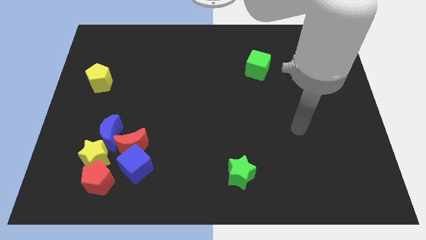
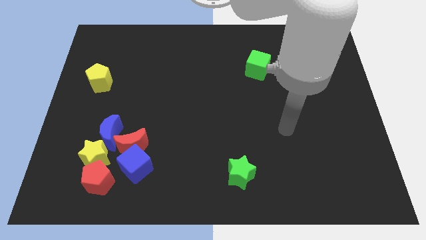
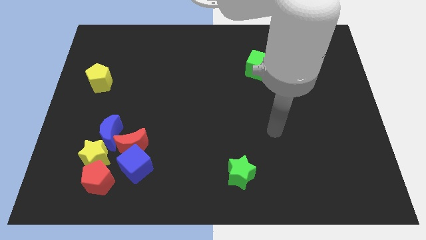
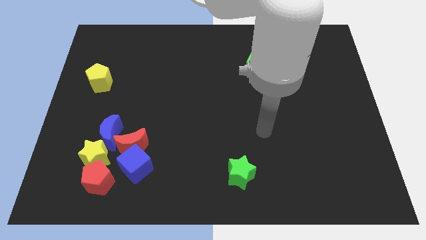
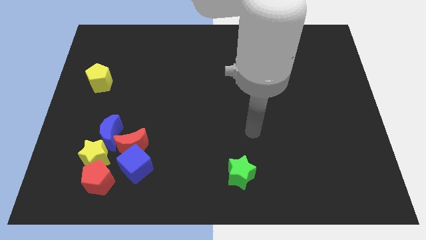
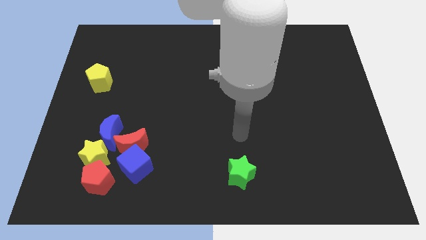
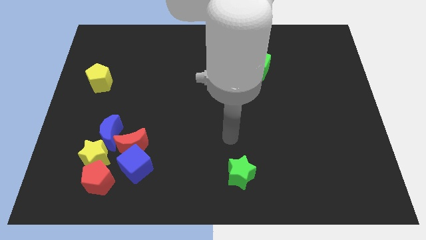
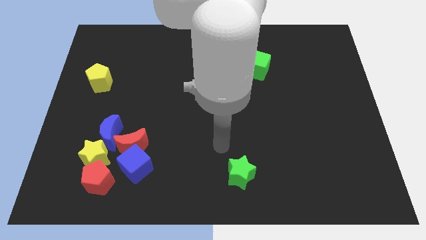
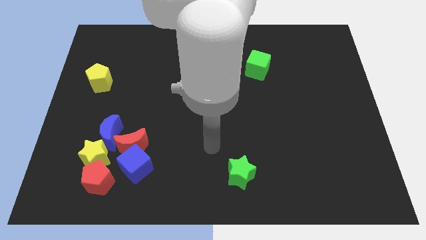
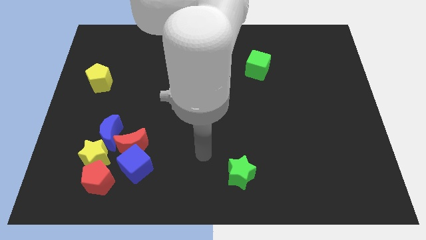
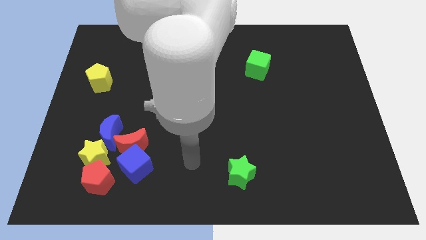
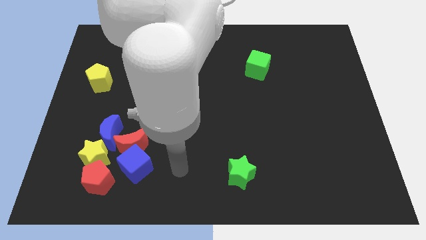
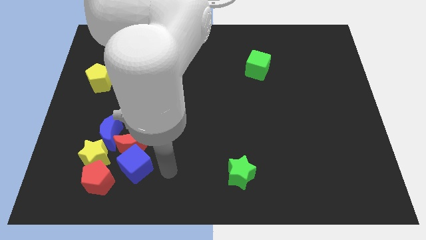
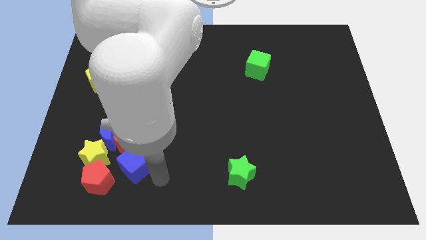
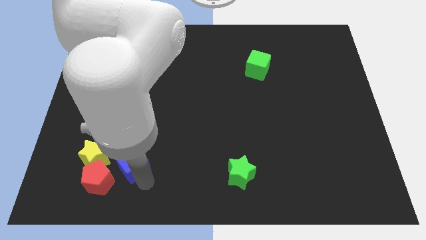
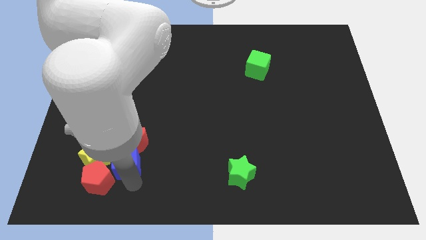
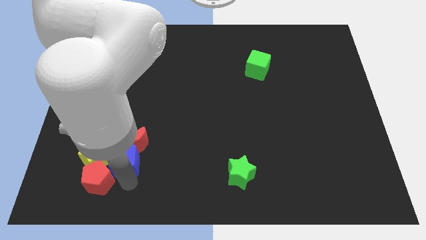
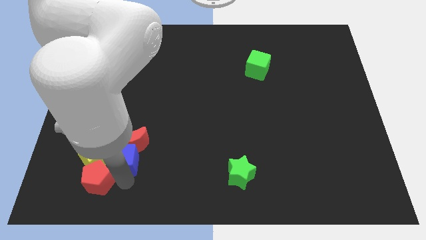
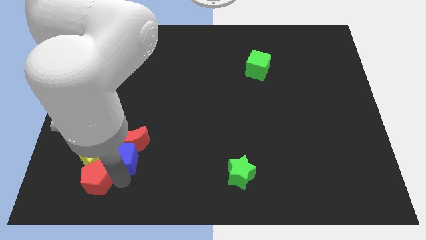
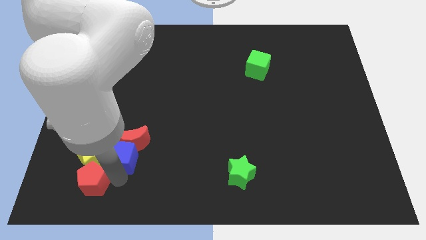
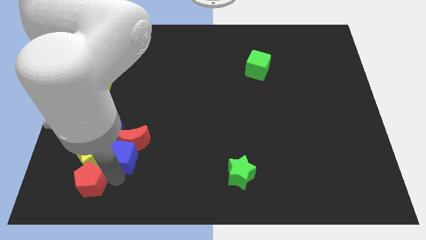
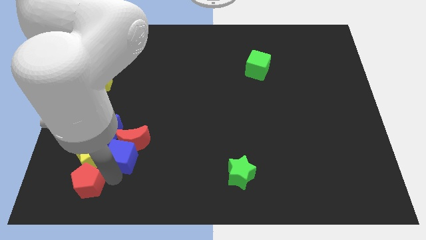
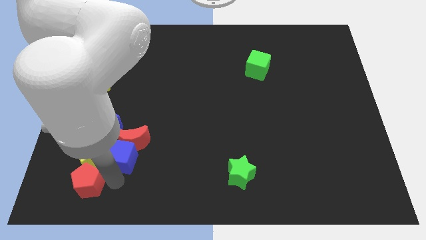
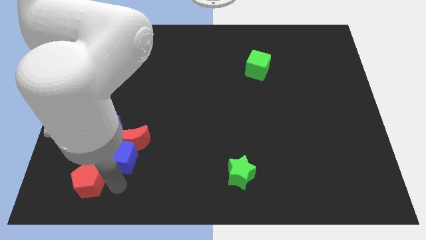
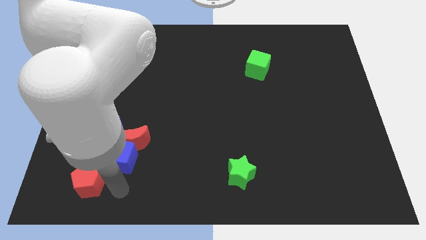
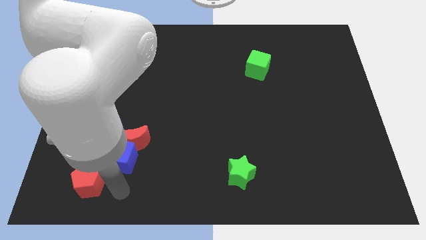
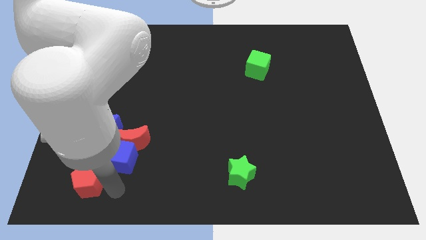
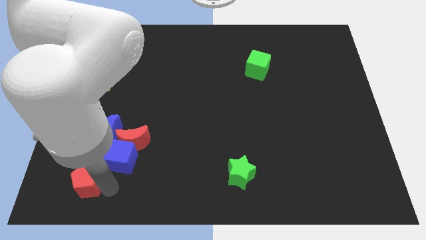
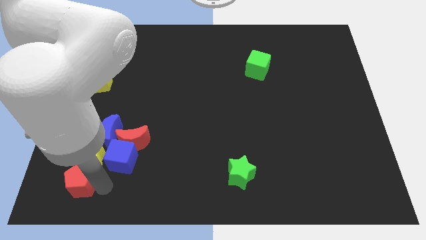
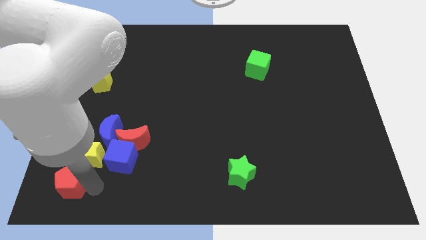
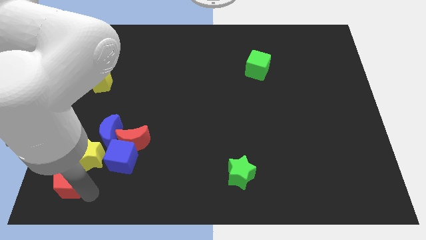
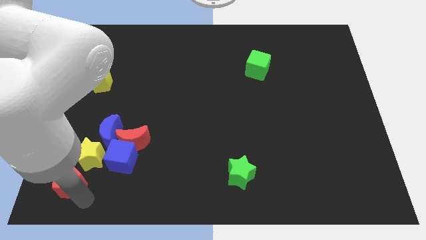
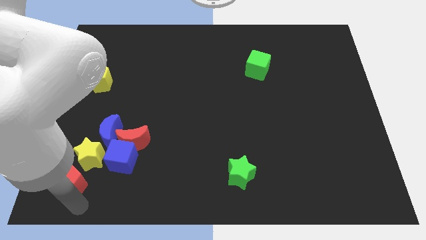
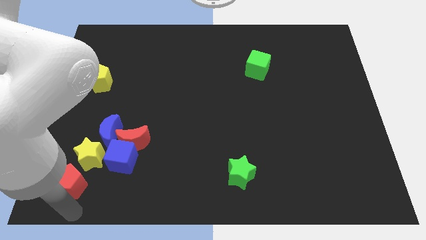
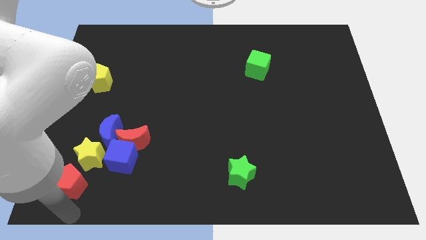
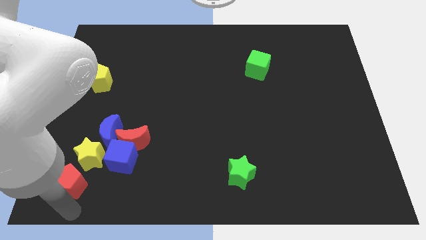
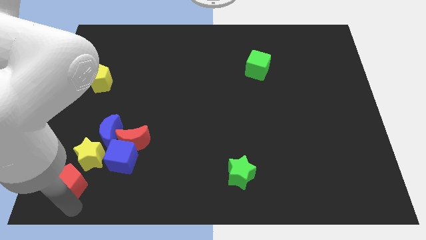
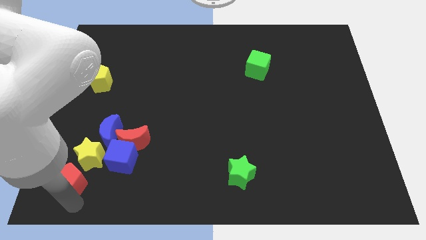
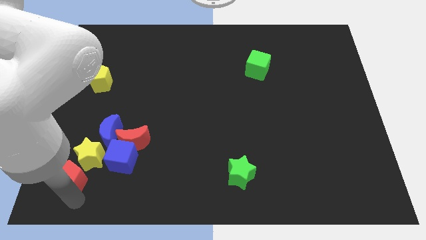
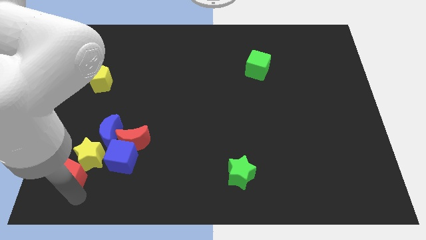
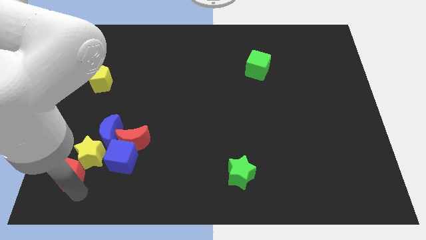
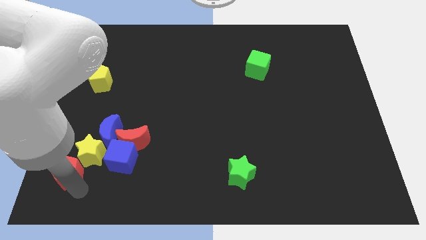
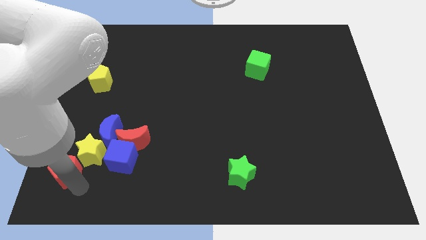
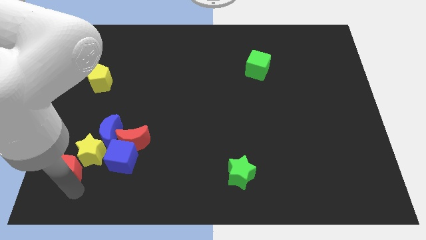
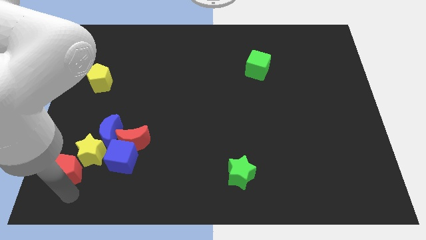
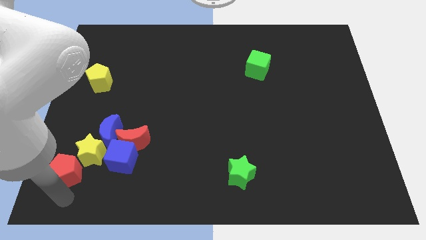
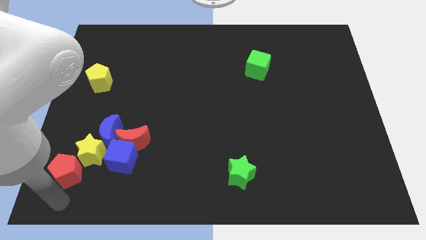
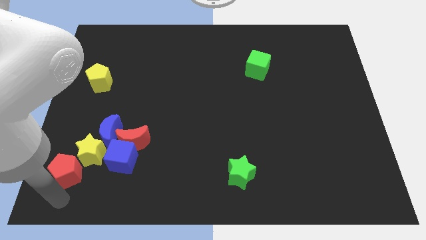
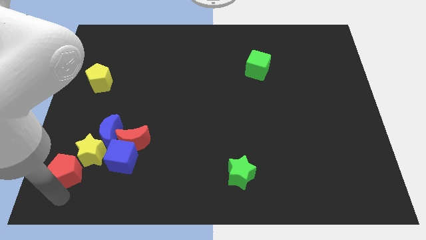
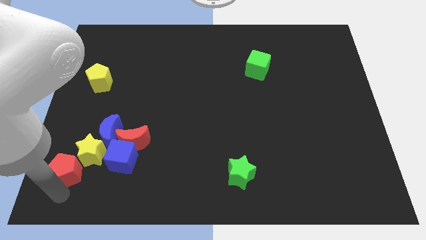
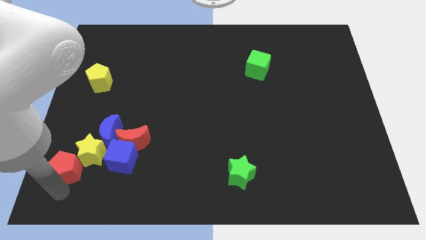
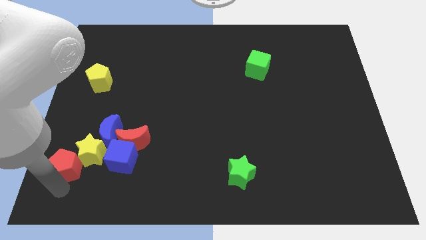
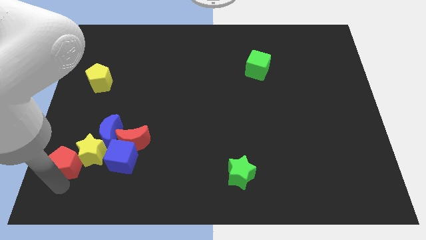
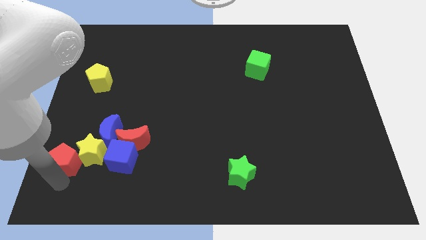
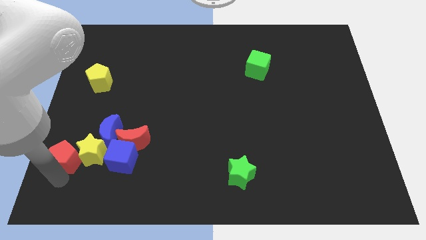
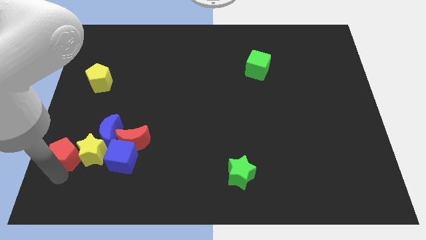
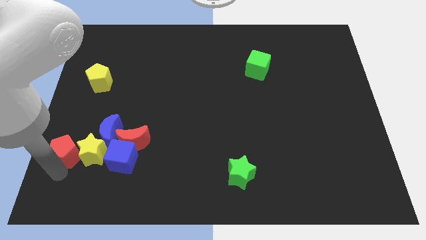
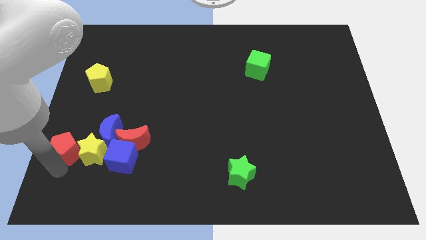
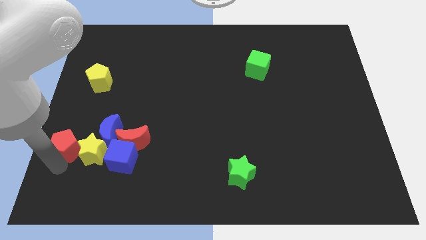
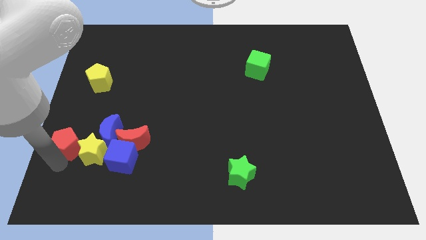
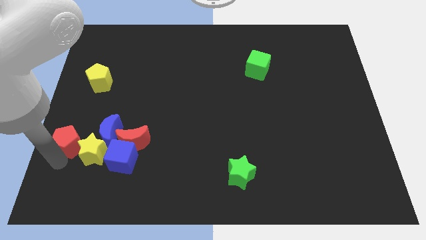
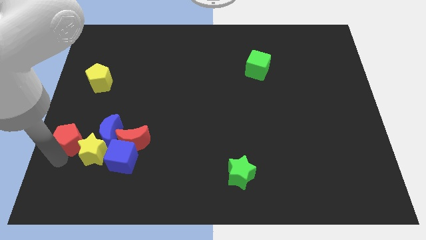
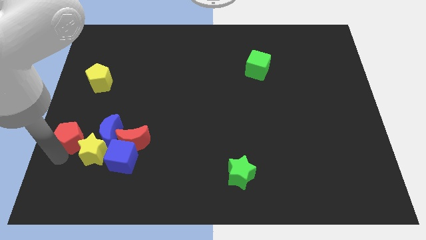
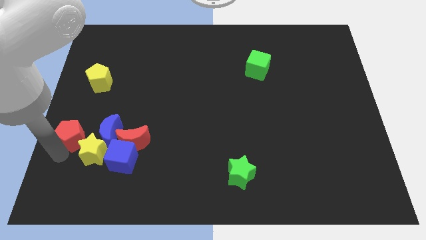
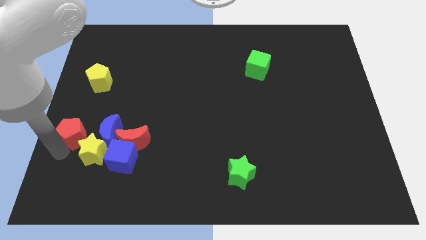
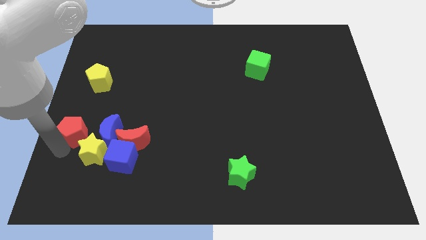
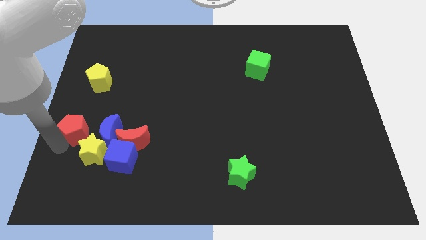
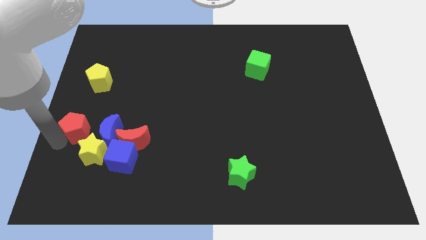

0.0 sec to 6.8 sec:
move the red pentagon diagonally up and to the left of the blue moon

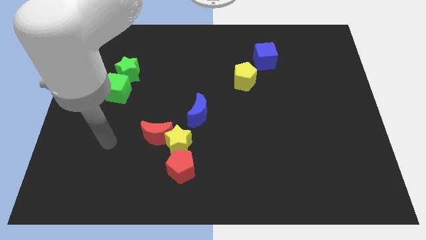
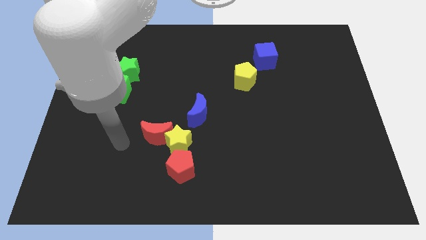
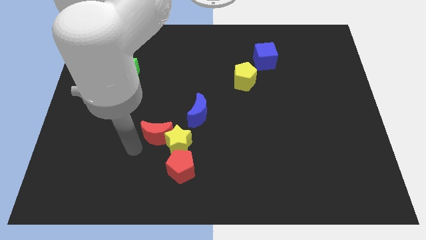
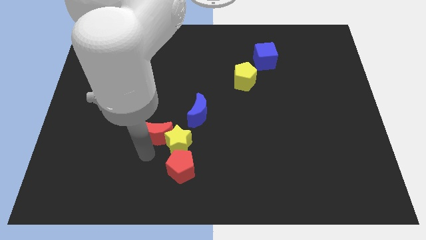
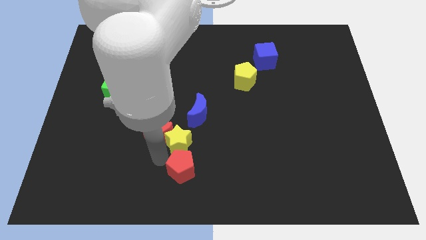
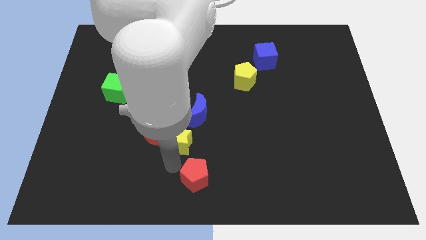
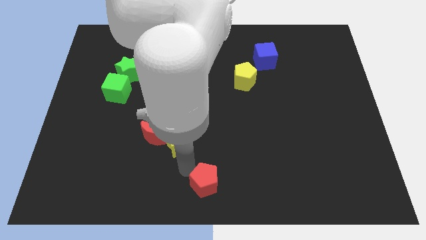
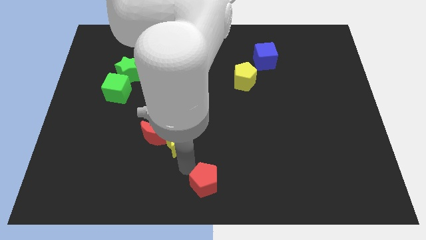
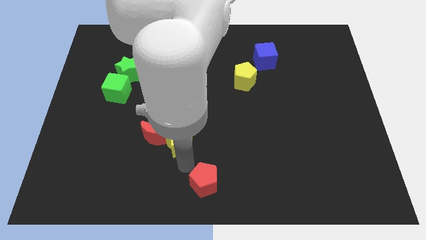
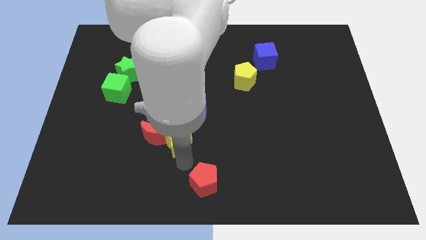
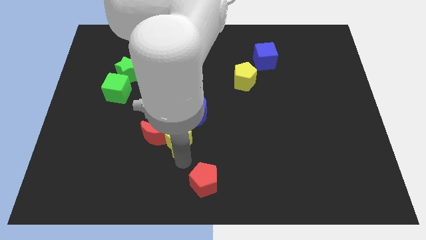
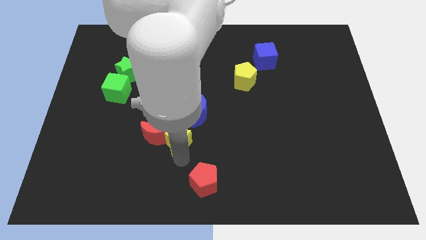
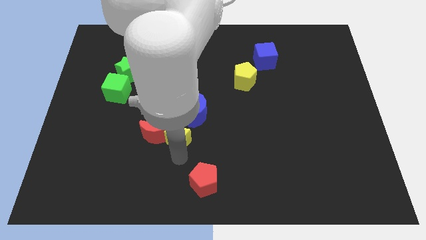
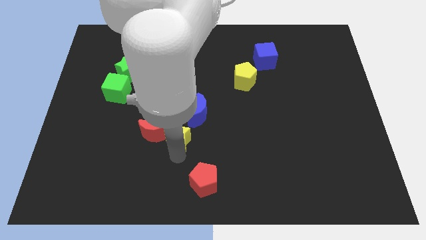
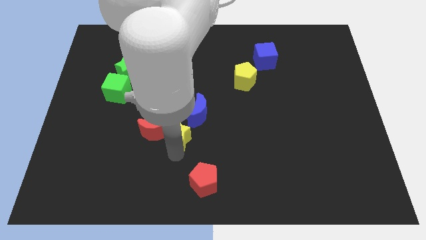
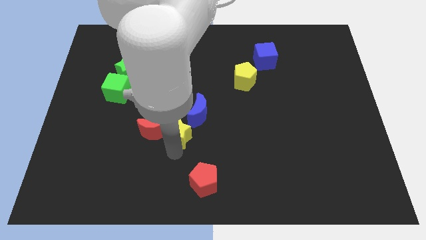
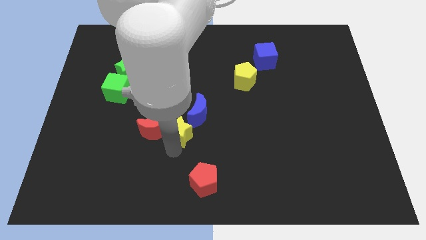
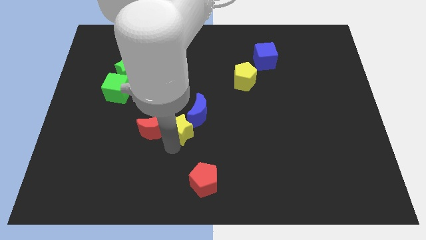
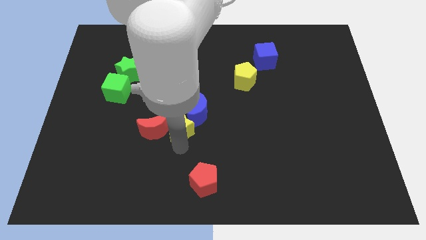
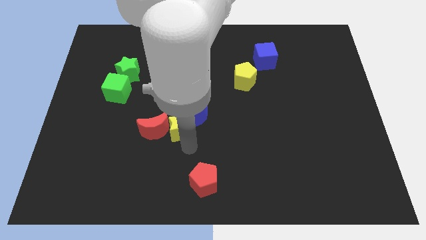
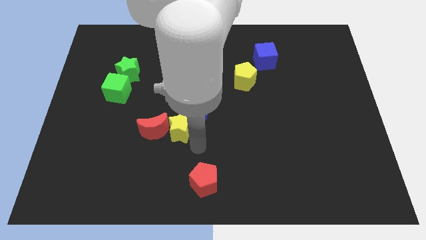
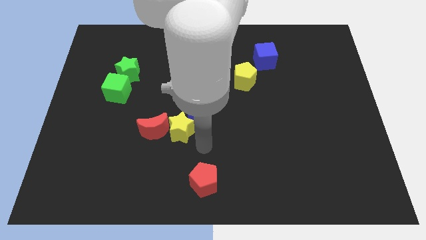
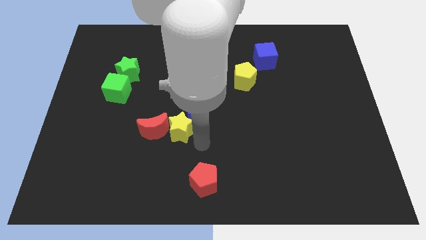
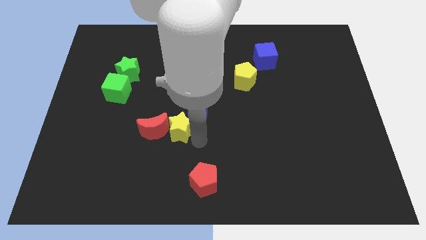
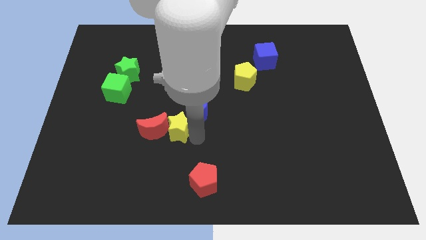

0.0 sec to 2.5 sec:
slide the yellow star left of the blue moon
